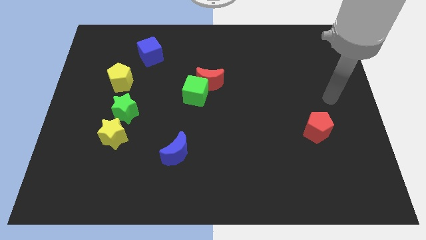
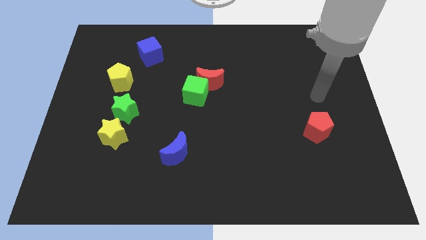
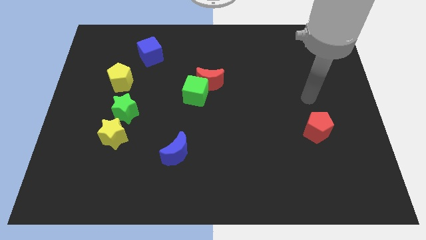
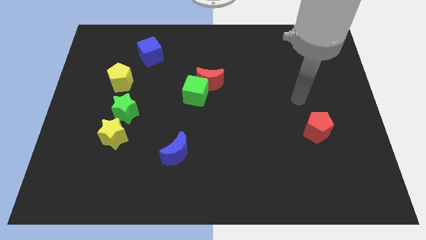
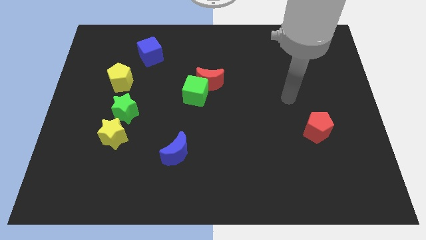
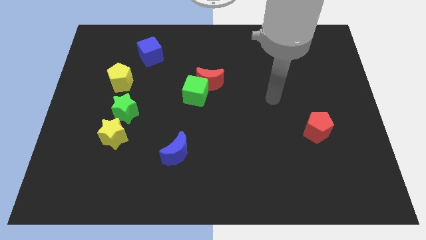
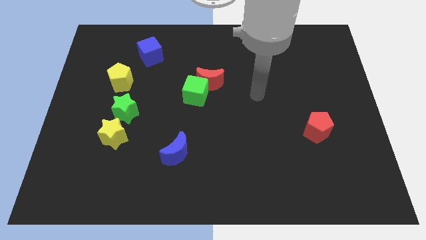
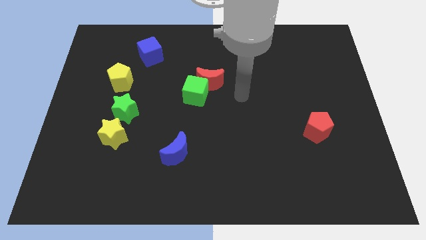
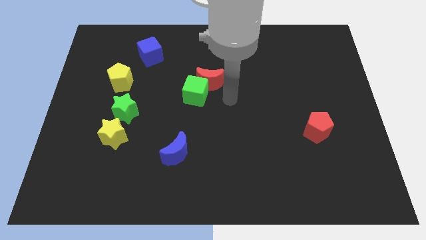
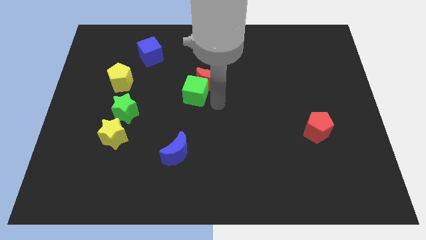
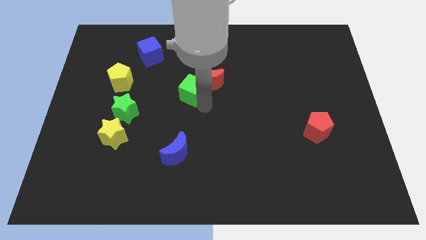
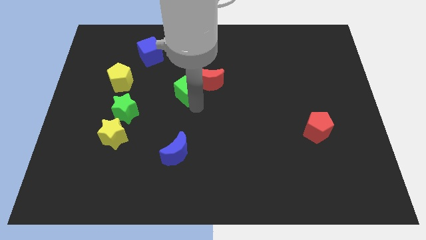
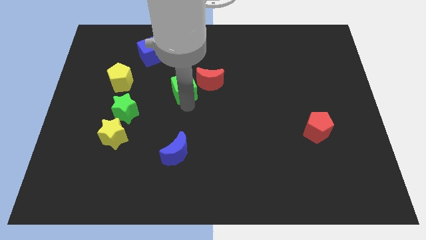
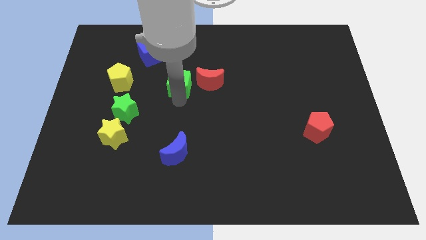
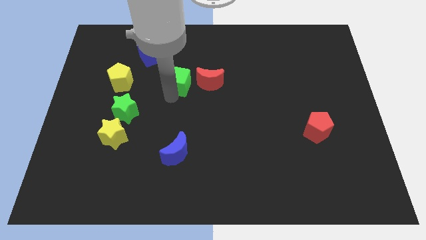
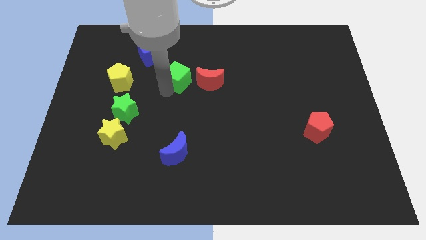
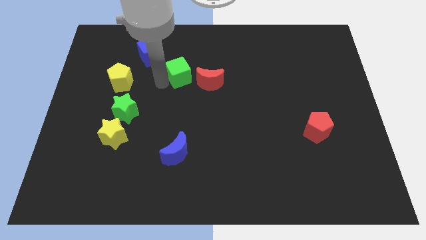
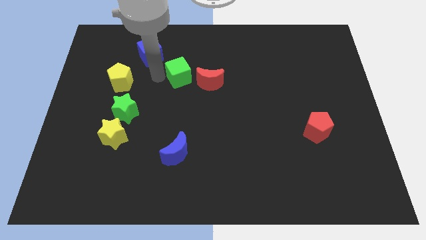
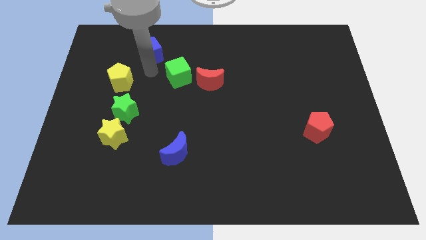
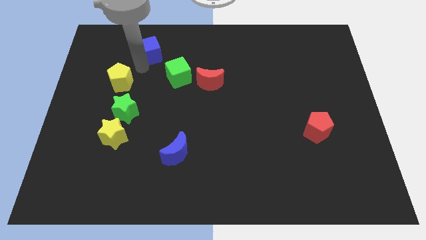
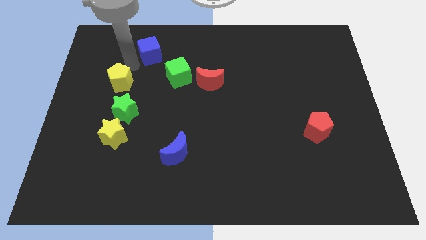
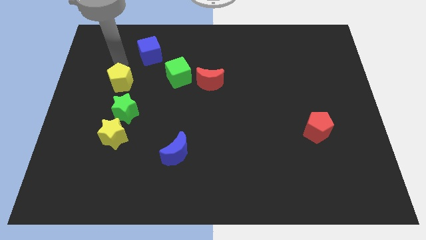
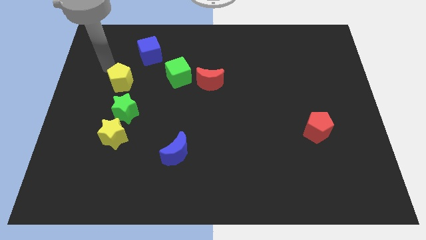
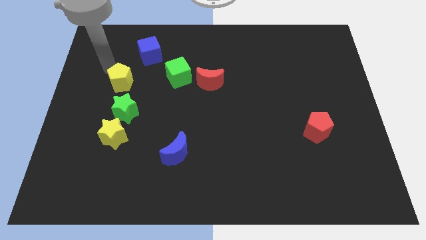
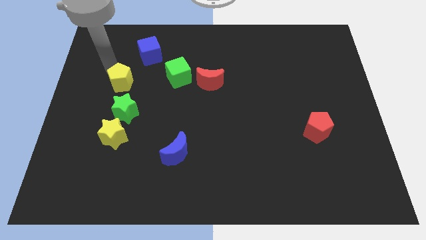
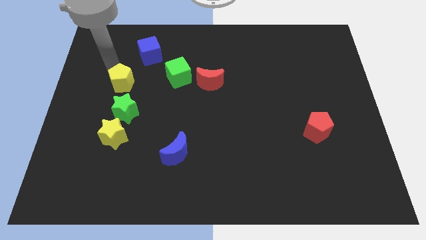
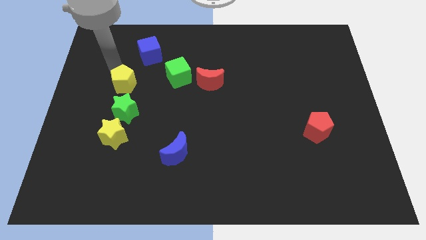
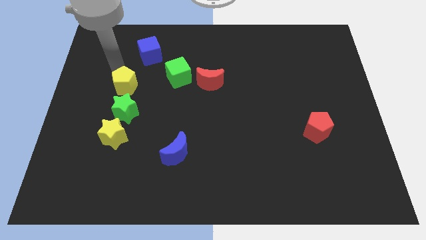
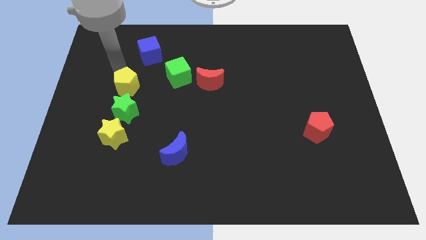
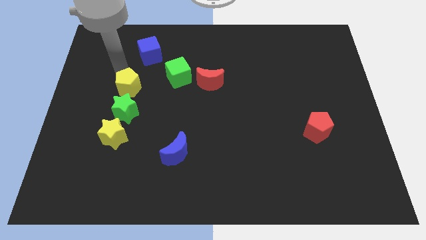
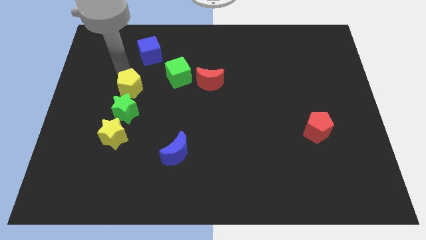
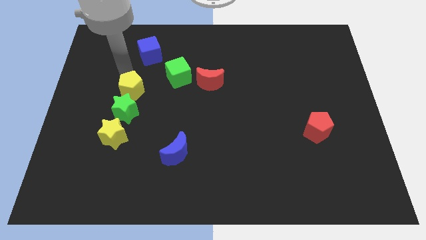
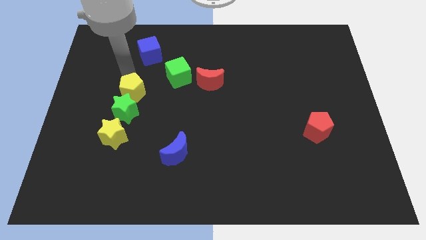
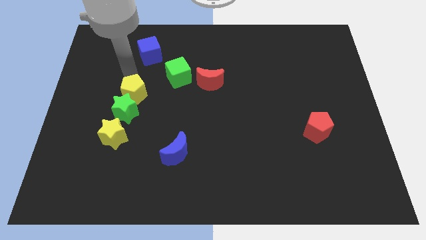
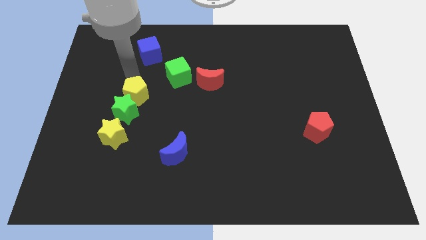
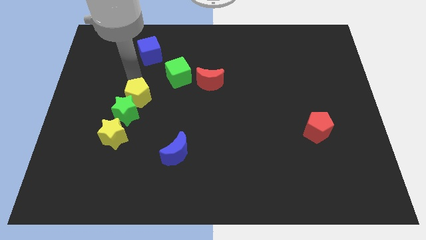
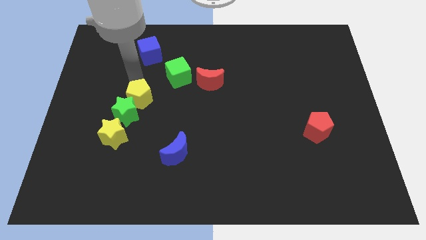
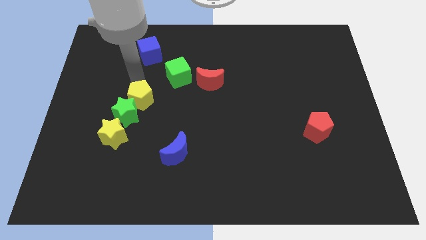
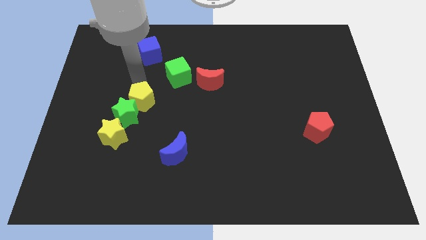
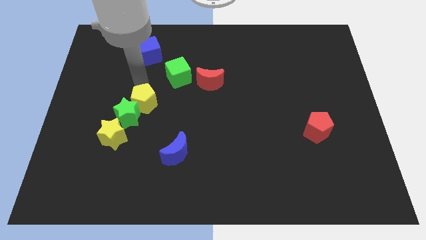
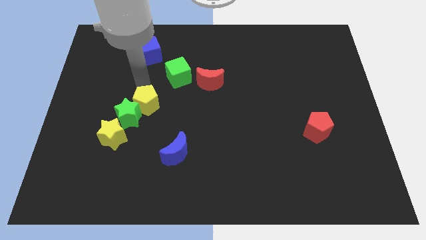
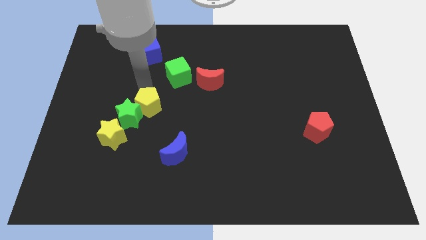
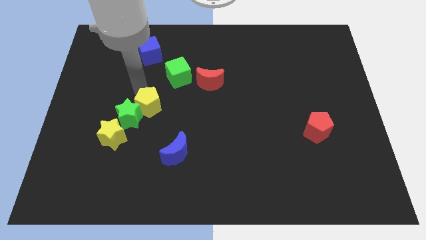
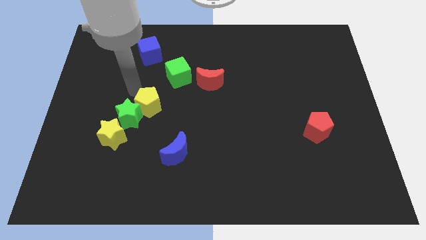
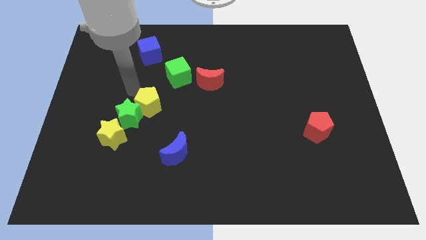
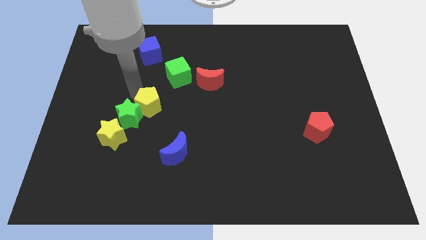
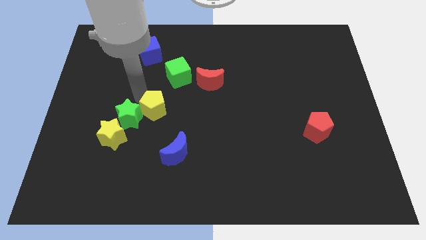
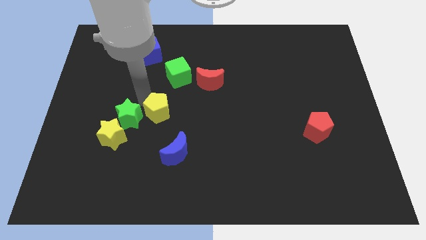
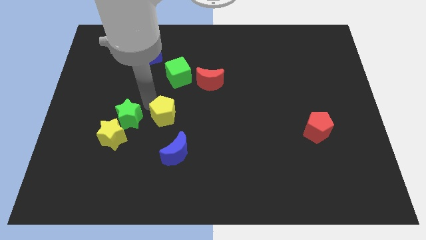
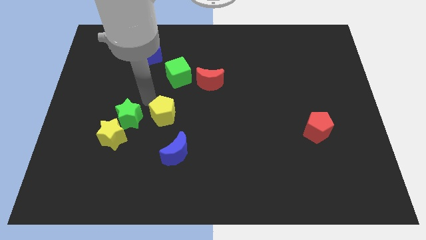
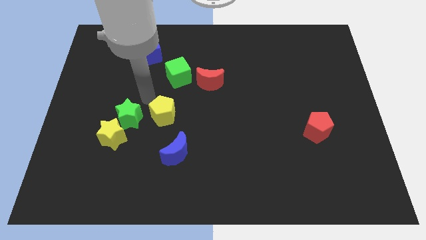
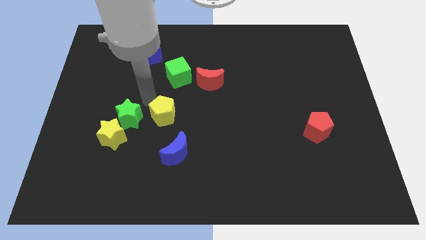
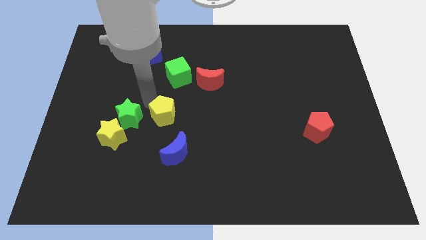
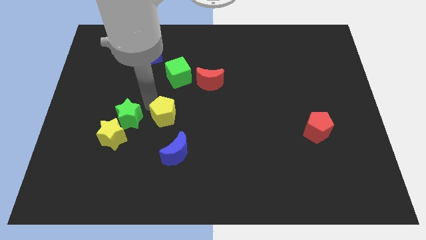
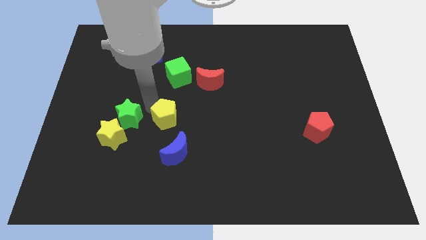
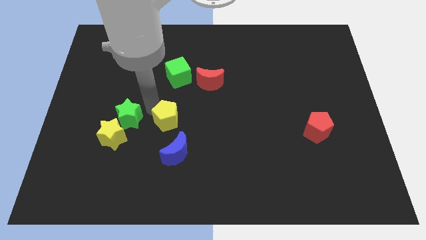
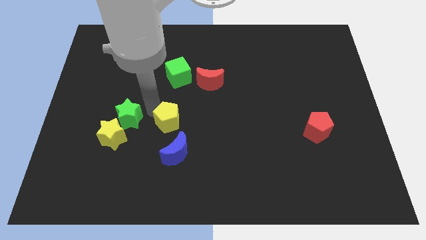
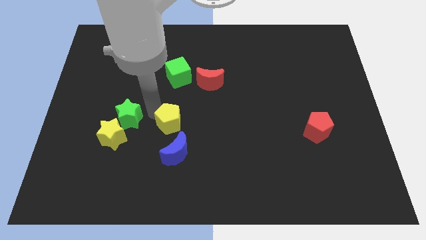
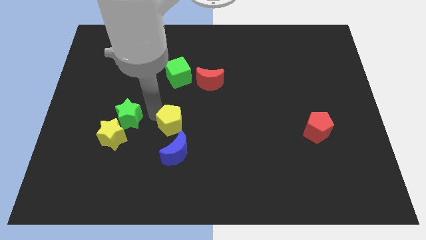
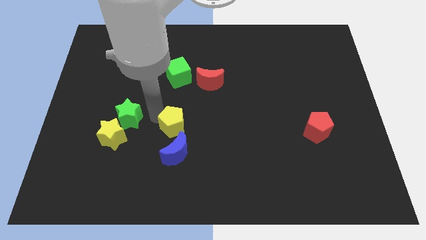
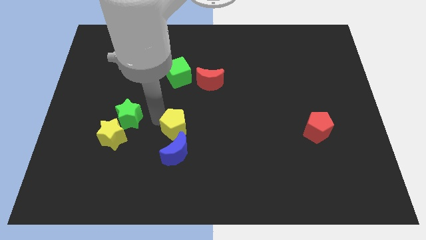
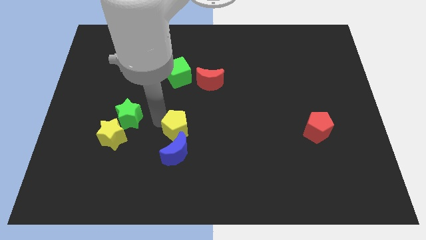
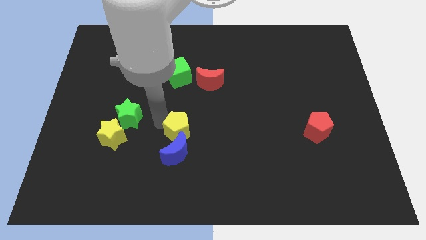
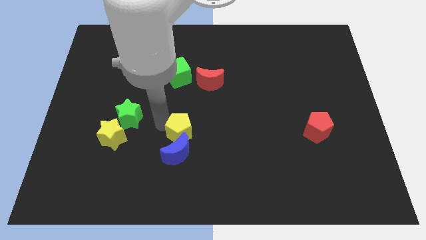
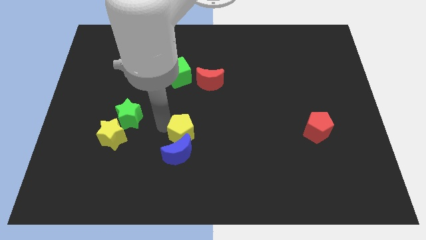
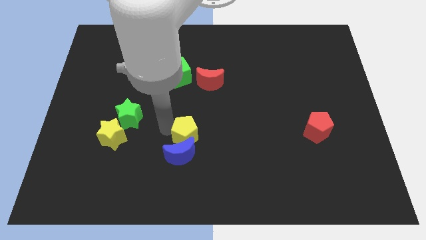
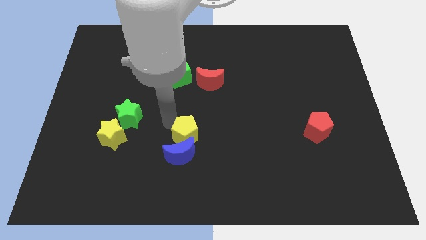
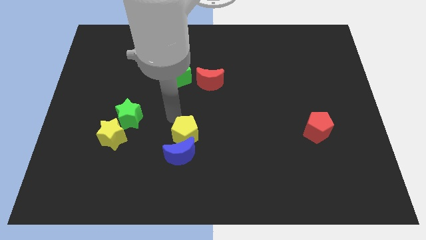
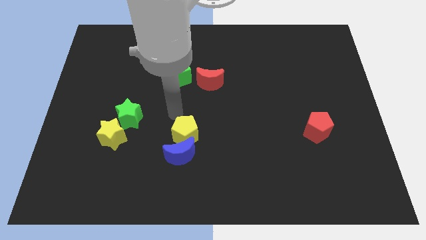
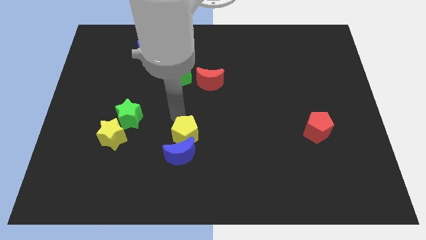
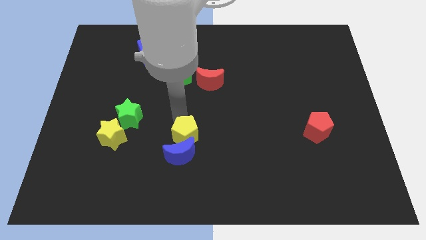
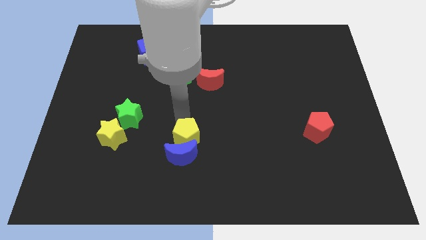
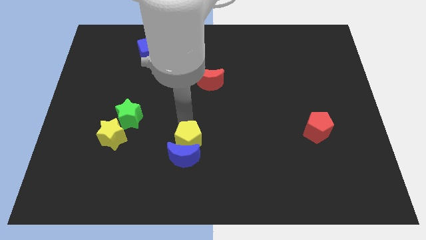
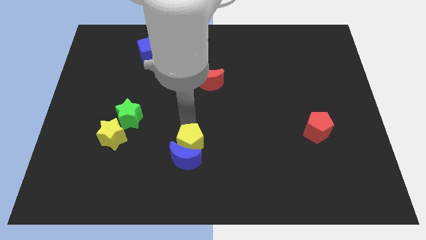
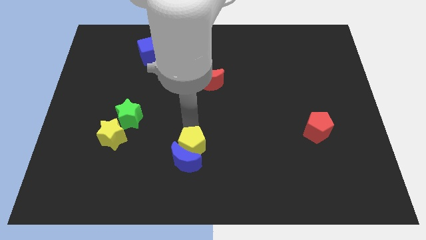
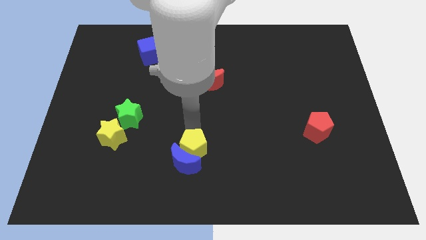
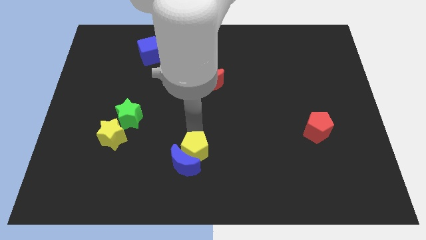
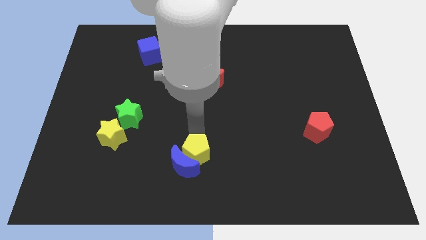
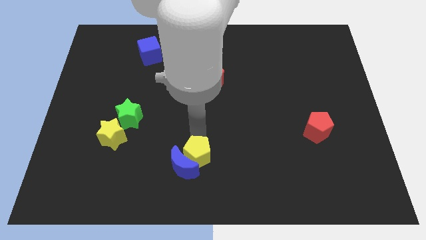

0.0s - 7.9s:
put the yellow pentagon to the bottom
